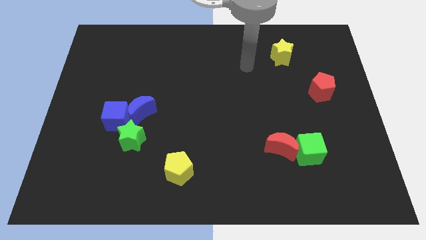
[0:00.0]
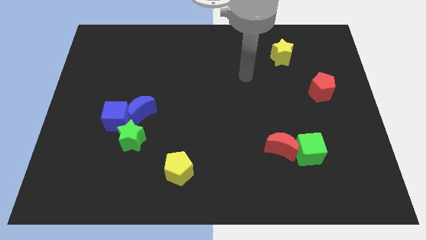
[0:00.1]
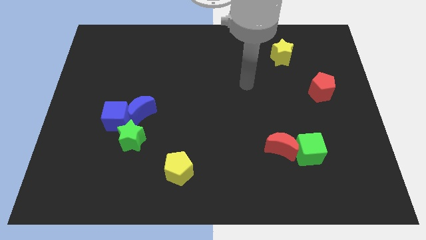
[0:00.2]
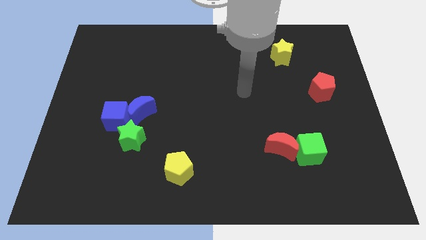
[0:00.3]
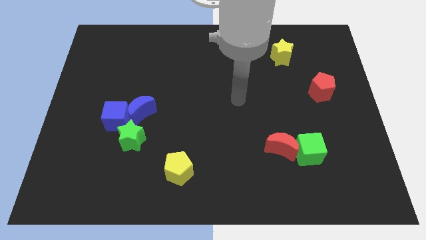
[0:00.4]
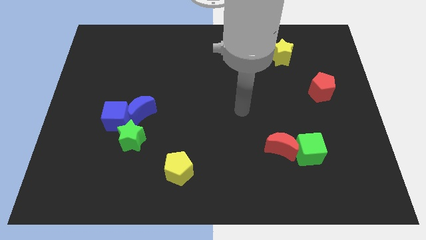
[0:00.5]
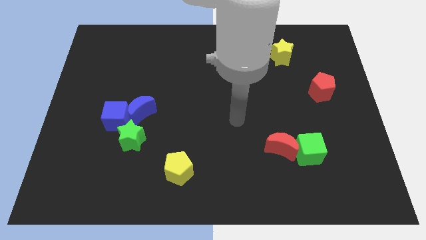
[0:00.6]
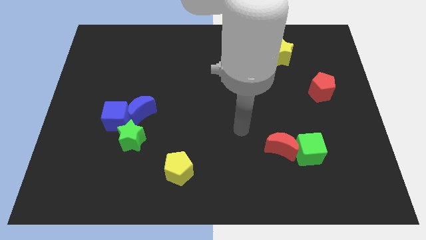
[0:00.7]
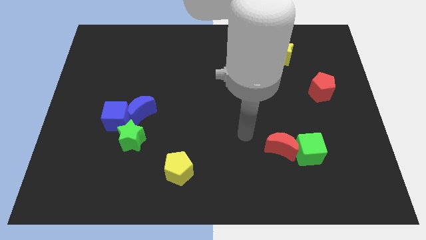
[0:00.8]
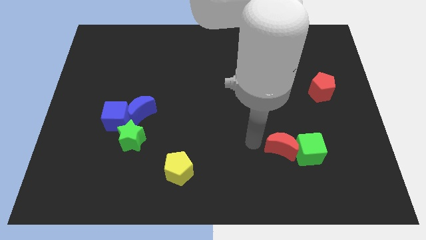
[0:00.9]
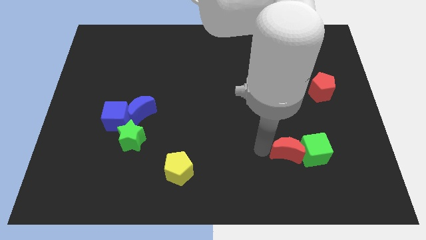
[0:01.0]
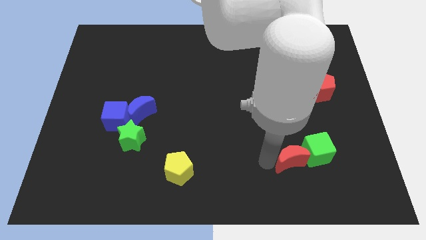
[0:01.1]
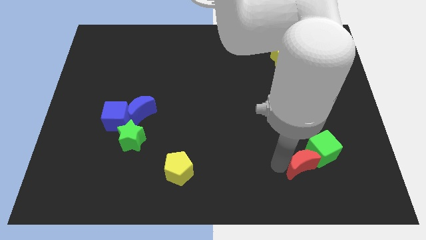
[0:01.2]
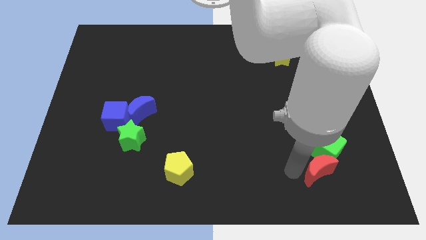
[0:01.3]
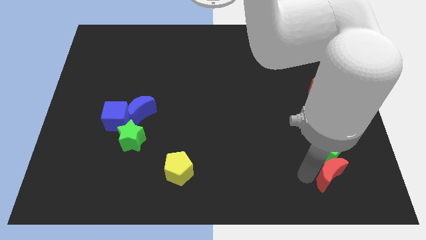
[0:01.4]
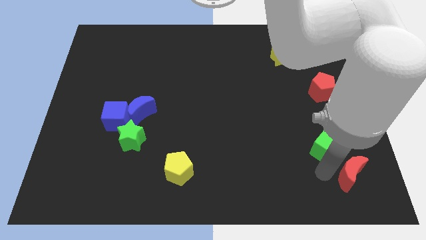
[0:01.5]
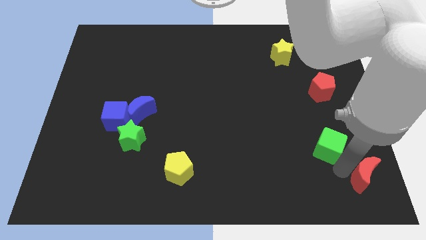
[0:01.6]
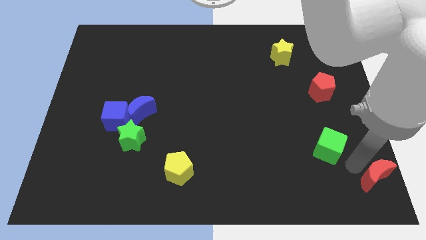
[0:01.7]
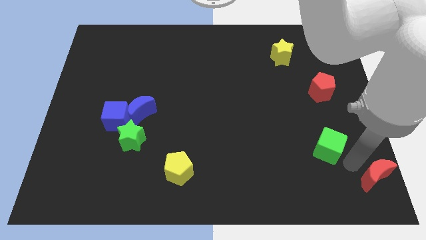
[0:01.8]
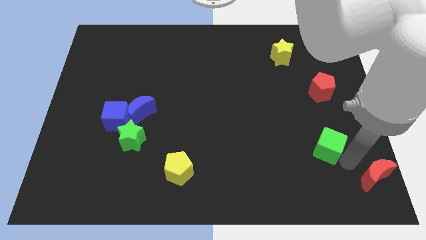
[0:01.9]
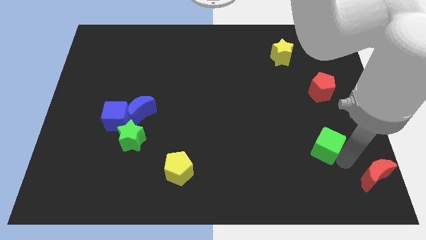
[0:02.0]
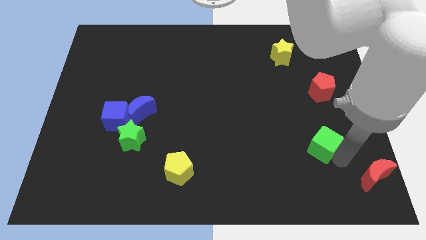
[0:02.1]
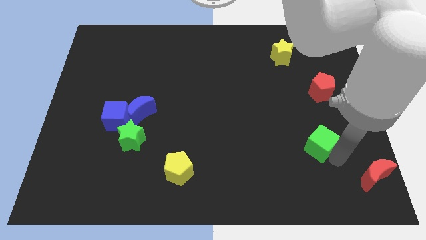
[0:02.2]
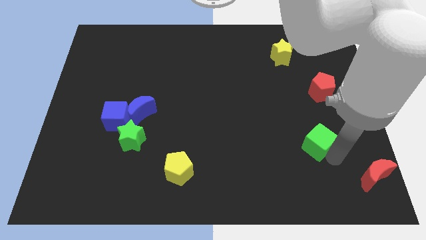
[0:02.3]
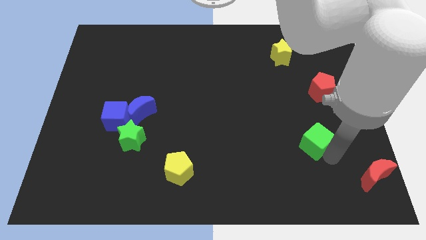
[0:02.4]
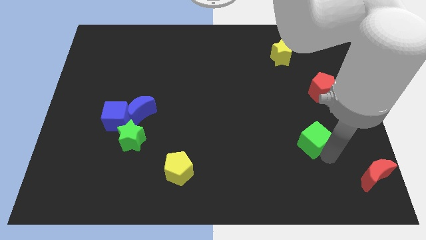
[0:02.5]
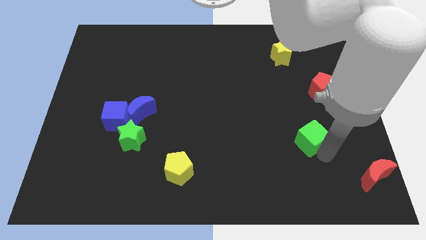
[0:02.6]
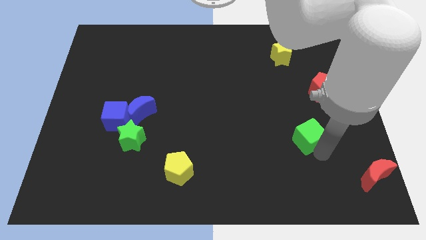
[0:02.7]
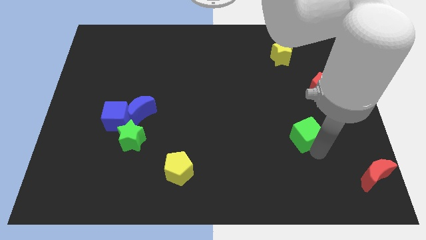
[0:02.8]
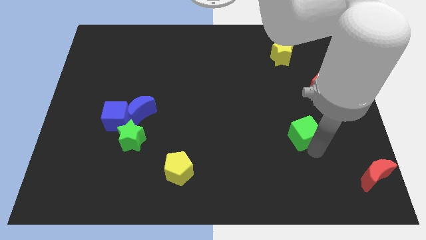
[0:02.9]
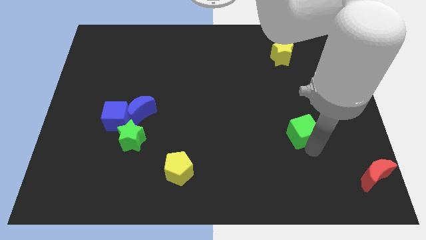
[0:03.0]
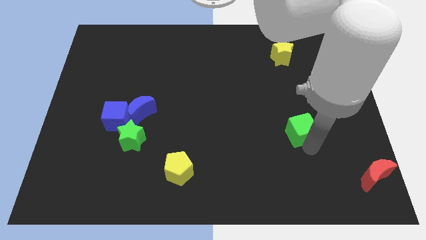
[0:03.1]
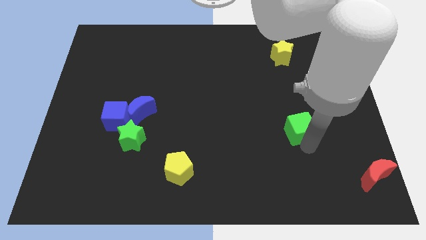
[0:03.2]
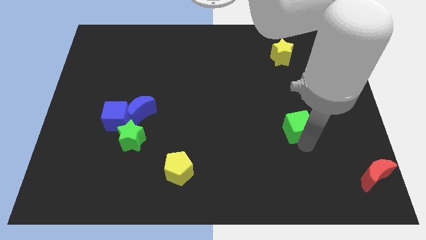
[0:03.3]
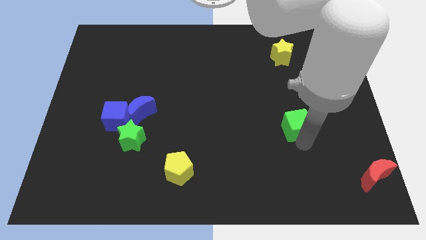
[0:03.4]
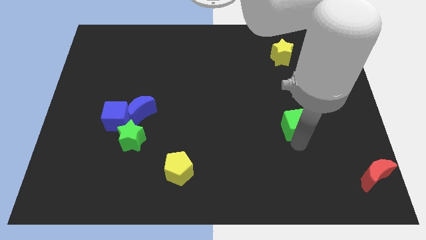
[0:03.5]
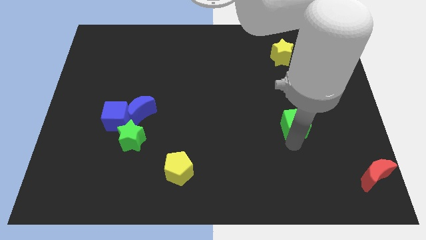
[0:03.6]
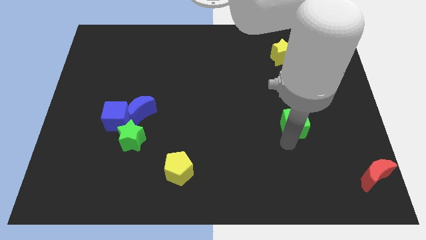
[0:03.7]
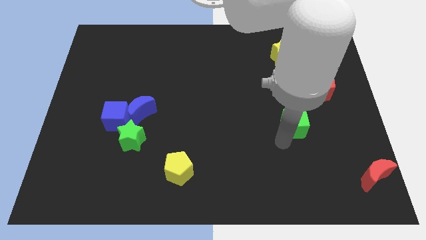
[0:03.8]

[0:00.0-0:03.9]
move the green cube upwards slightly

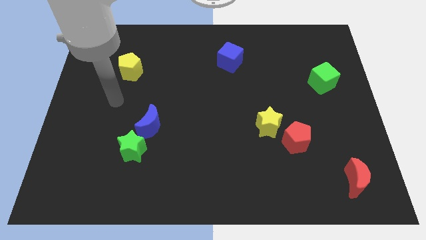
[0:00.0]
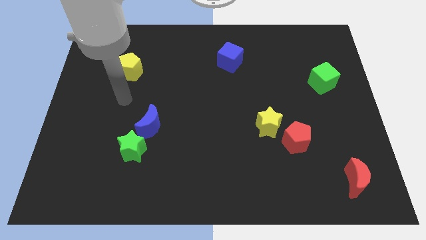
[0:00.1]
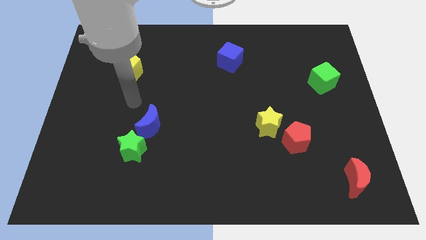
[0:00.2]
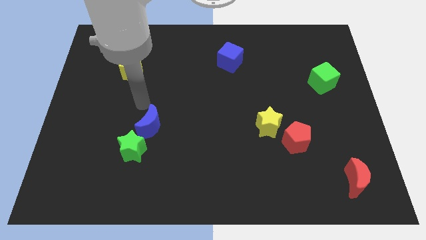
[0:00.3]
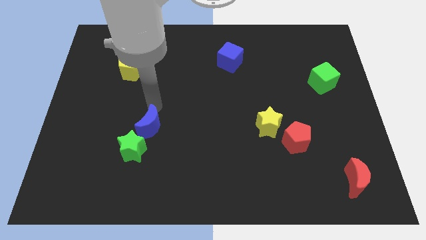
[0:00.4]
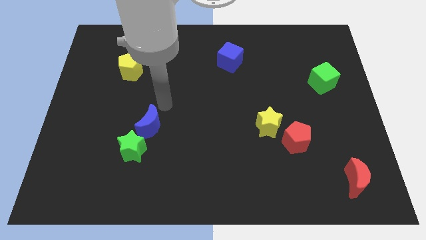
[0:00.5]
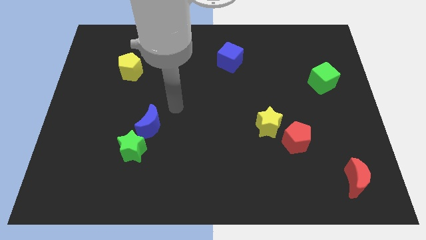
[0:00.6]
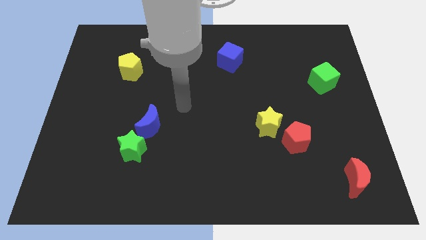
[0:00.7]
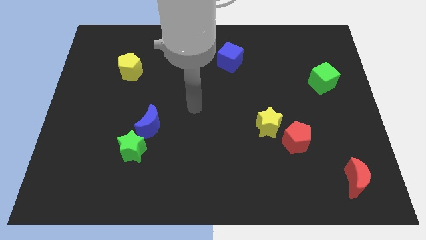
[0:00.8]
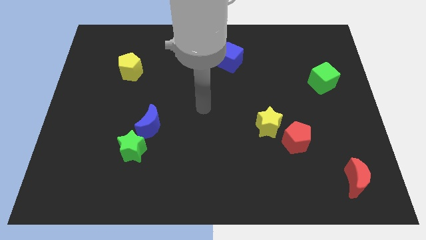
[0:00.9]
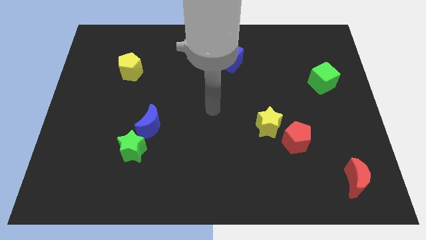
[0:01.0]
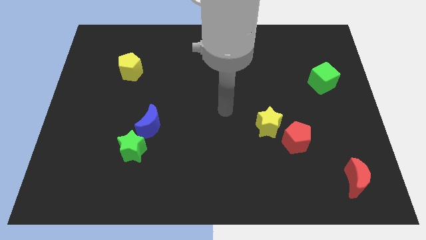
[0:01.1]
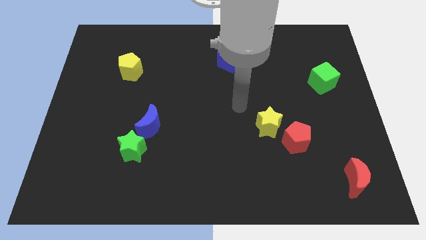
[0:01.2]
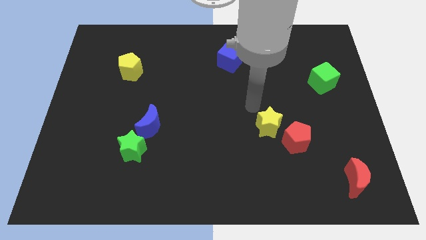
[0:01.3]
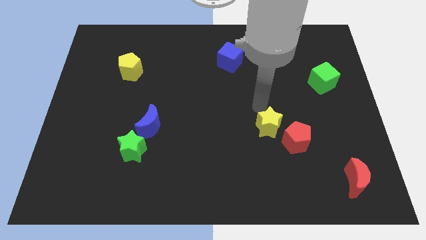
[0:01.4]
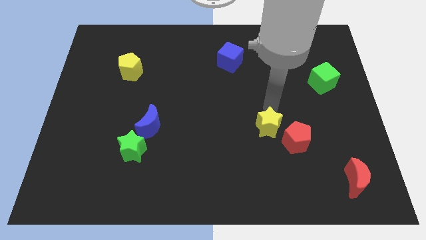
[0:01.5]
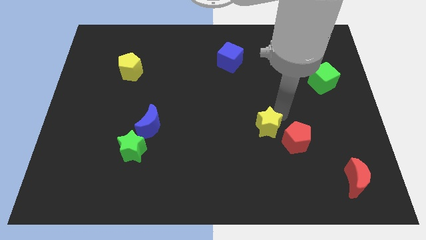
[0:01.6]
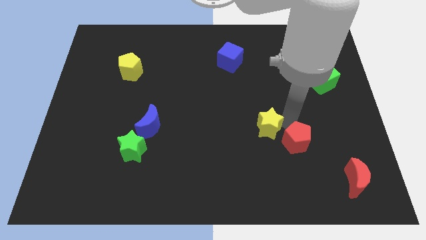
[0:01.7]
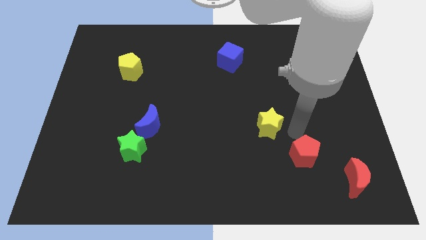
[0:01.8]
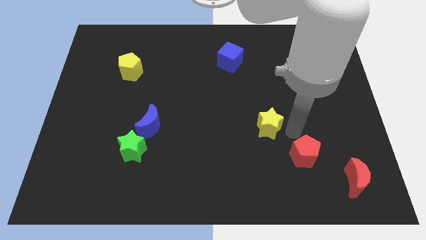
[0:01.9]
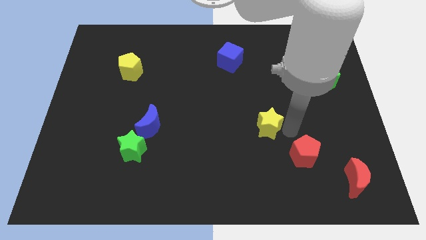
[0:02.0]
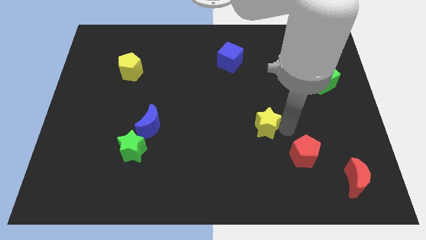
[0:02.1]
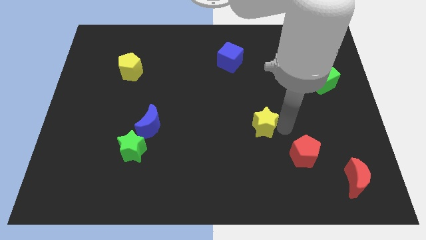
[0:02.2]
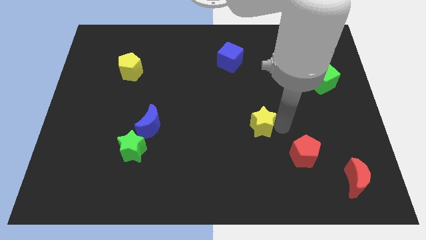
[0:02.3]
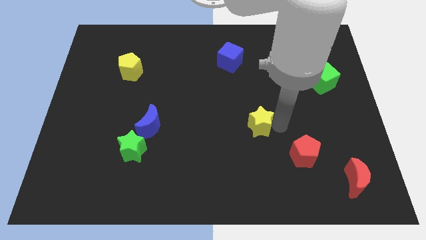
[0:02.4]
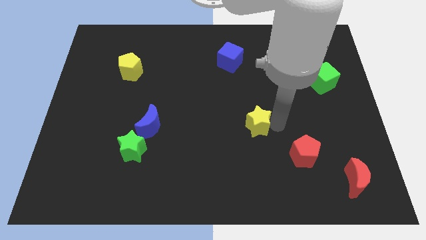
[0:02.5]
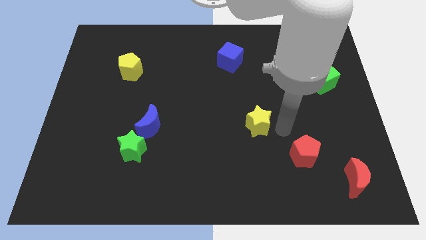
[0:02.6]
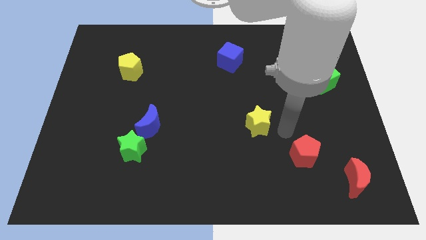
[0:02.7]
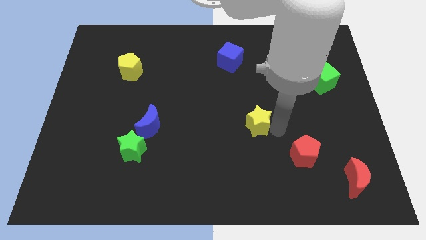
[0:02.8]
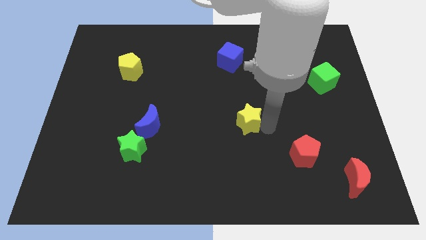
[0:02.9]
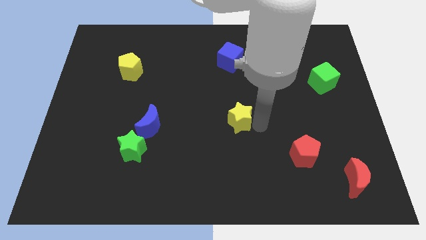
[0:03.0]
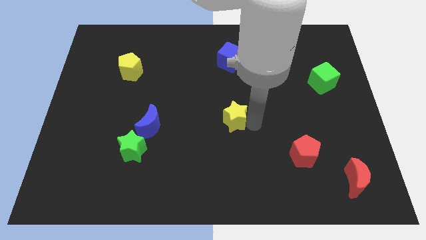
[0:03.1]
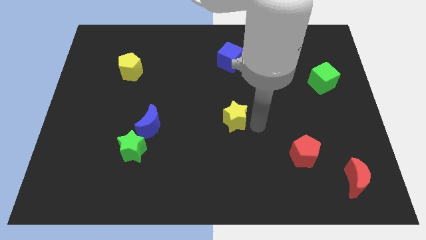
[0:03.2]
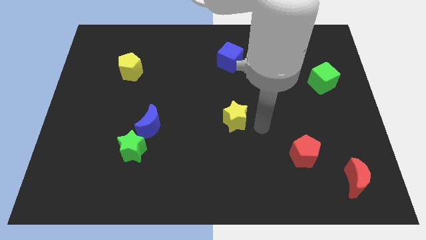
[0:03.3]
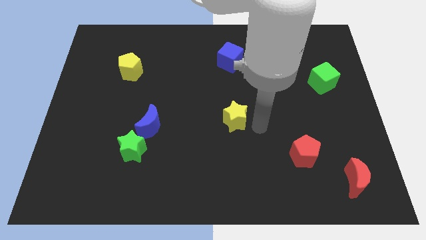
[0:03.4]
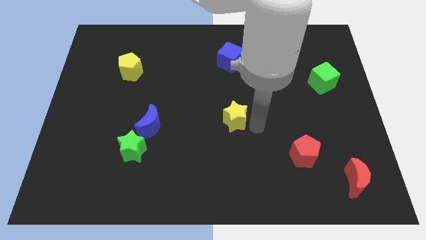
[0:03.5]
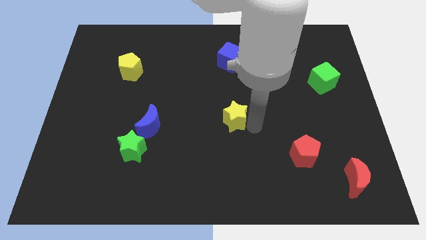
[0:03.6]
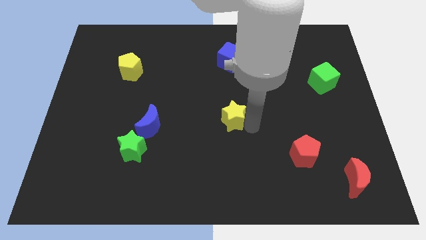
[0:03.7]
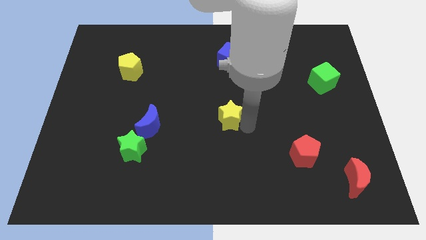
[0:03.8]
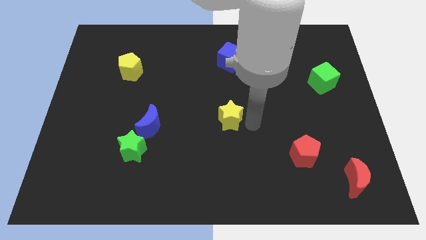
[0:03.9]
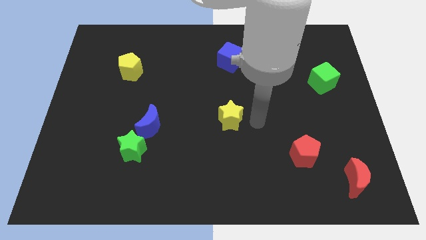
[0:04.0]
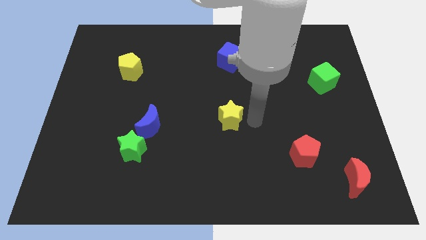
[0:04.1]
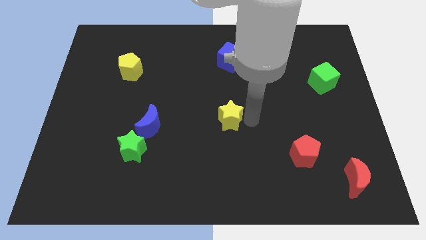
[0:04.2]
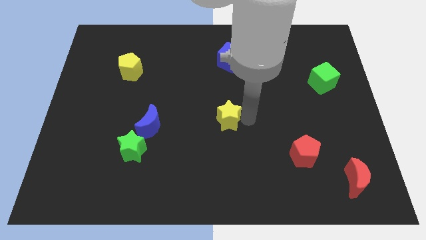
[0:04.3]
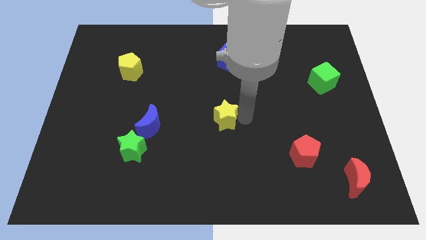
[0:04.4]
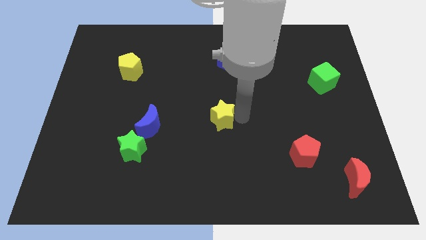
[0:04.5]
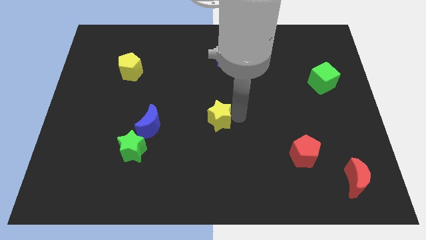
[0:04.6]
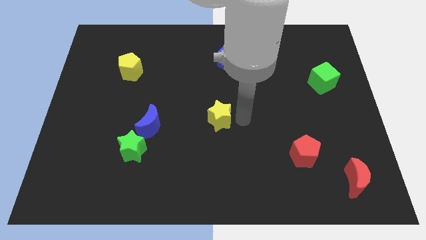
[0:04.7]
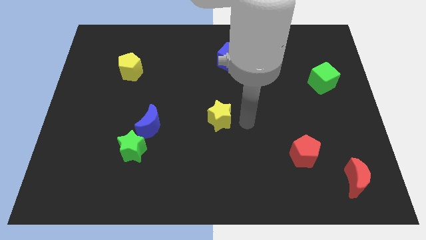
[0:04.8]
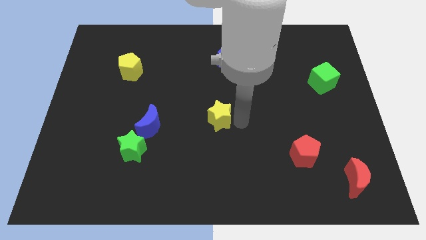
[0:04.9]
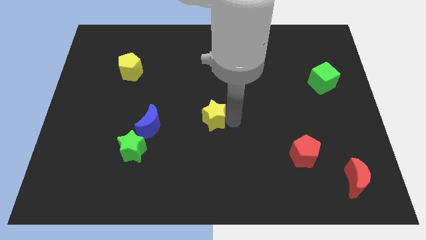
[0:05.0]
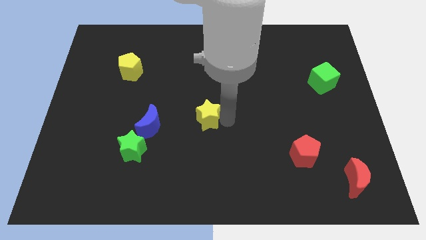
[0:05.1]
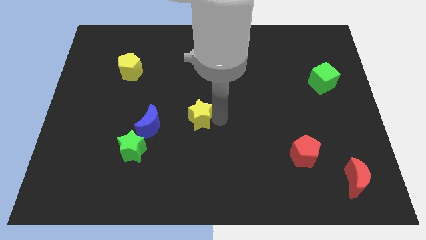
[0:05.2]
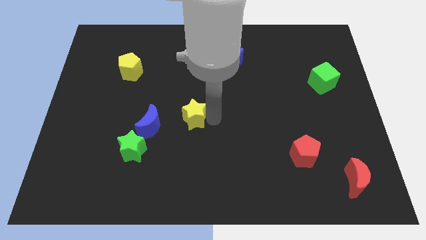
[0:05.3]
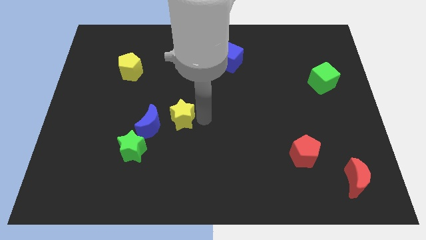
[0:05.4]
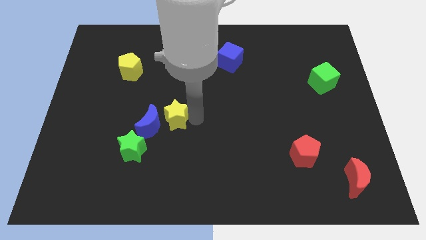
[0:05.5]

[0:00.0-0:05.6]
move the yellow star to the left
